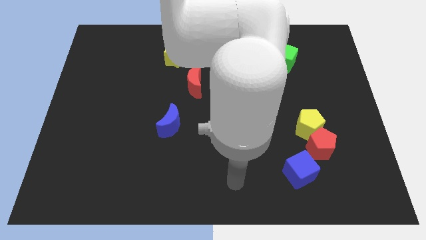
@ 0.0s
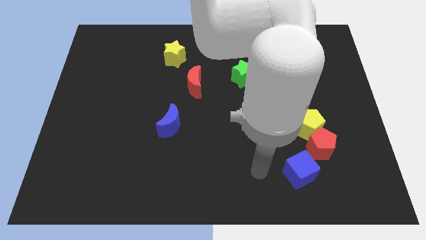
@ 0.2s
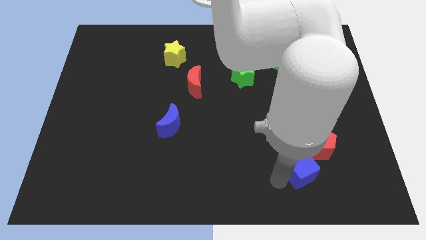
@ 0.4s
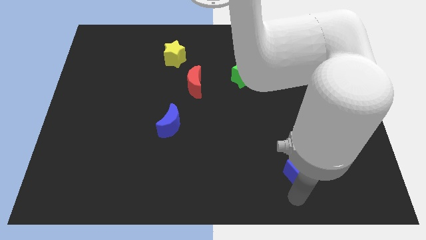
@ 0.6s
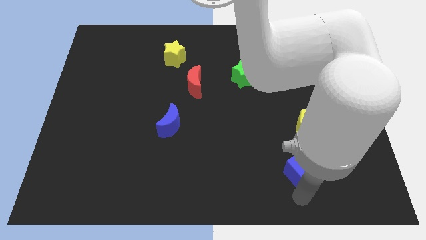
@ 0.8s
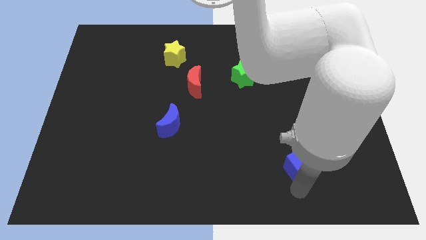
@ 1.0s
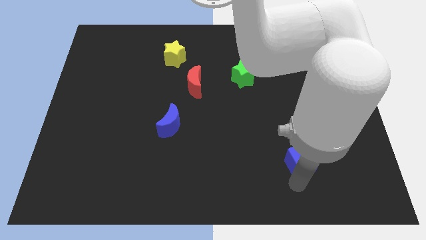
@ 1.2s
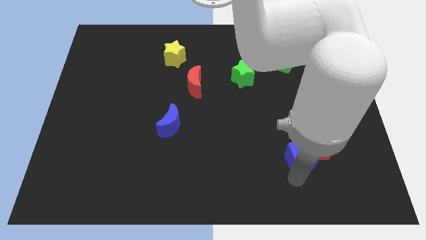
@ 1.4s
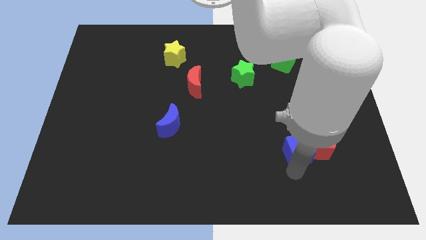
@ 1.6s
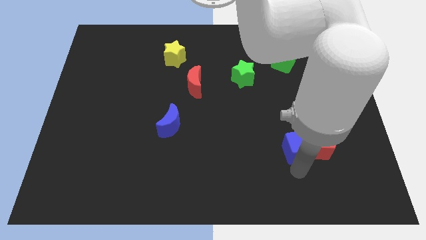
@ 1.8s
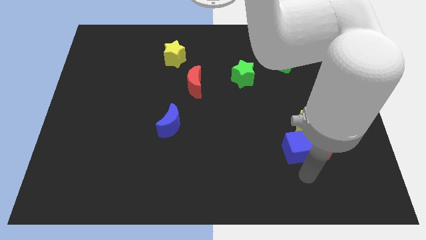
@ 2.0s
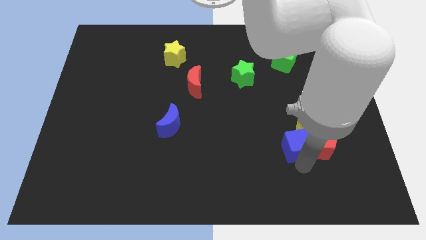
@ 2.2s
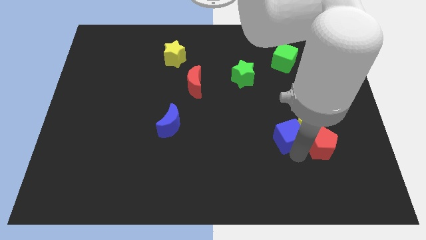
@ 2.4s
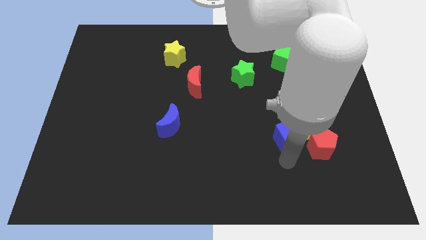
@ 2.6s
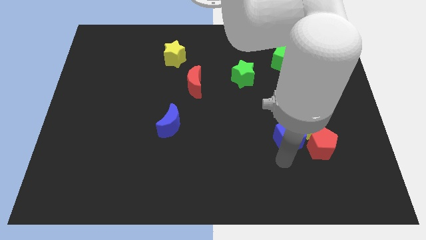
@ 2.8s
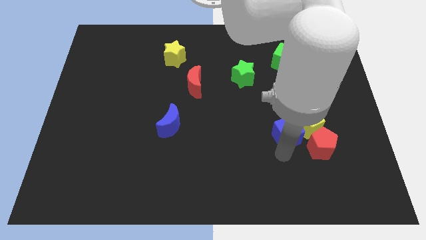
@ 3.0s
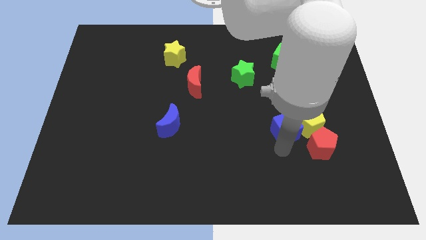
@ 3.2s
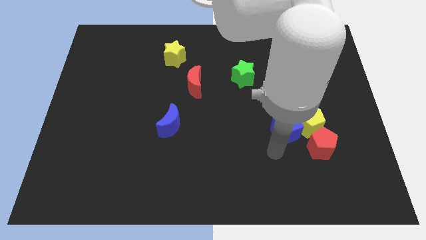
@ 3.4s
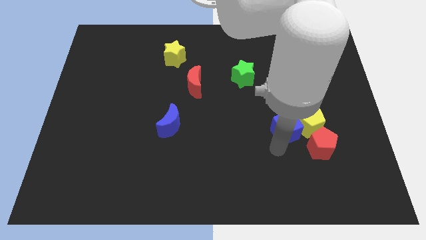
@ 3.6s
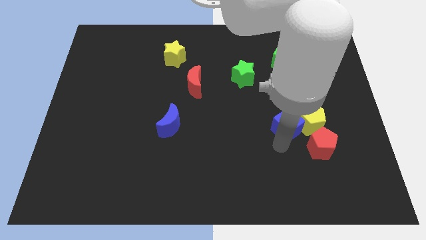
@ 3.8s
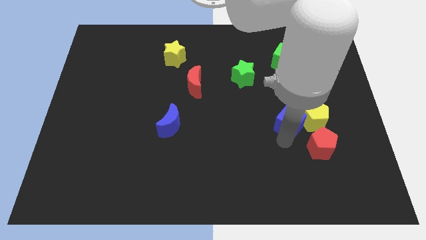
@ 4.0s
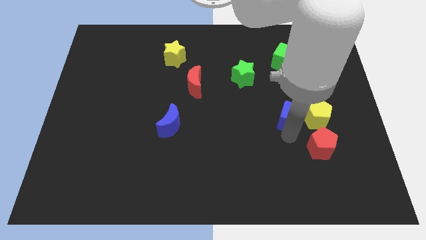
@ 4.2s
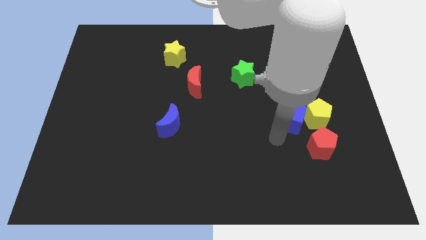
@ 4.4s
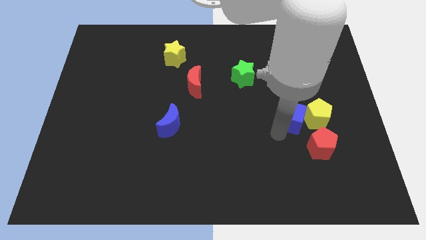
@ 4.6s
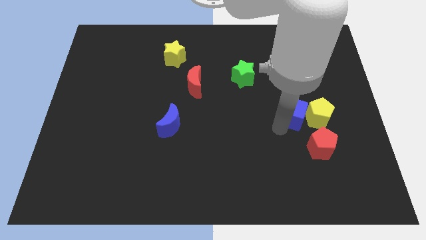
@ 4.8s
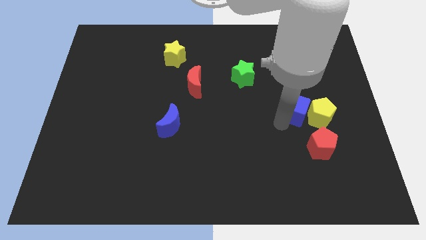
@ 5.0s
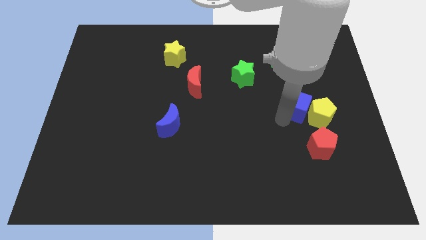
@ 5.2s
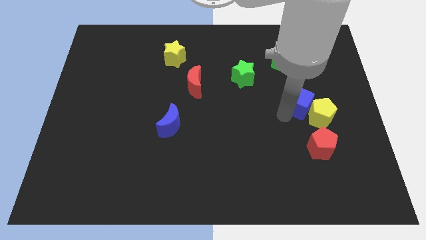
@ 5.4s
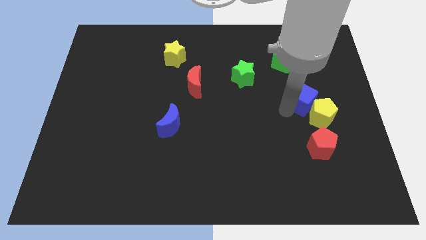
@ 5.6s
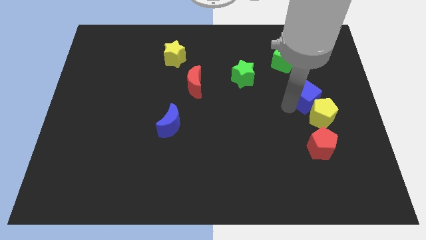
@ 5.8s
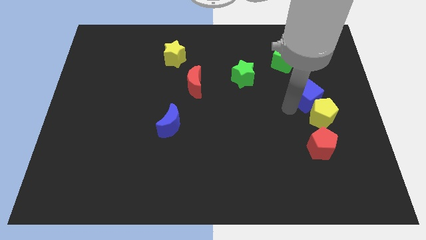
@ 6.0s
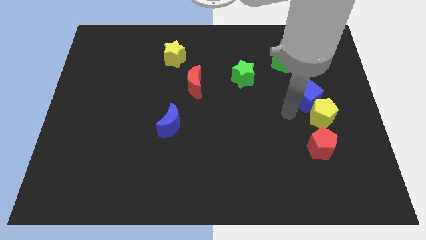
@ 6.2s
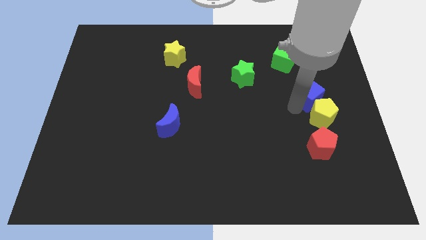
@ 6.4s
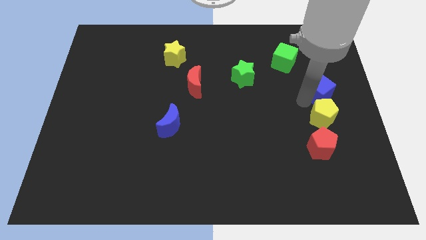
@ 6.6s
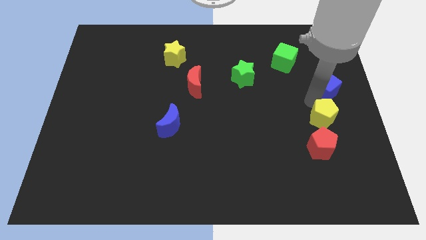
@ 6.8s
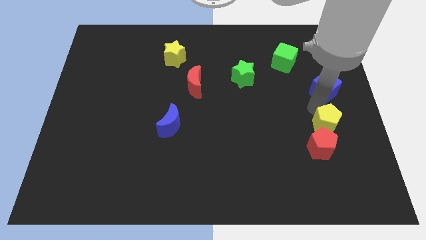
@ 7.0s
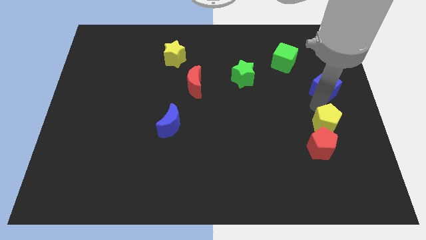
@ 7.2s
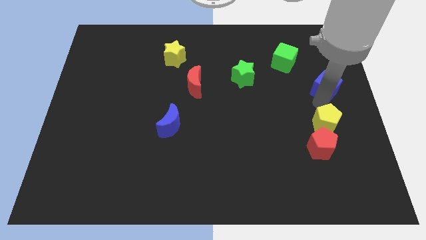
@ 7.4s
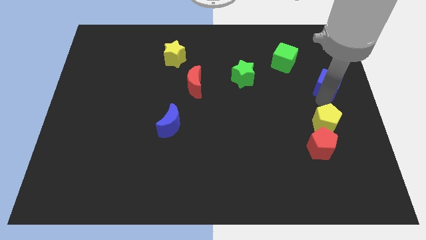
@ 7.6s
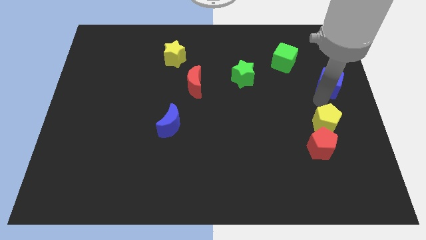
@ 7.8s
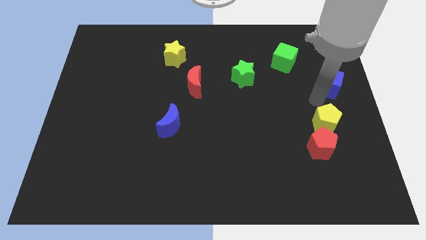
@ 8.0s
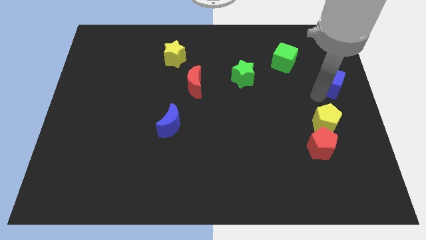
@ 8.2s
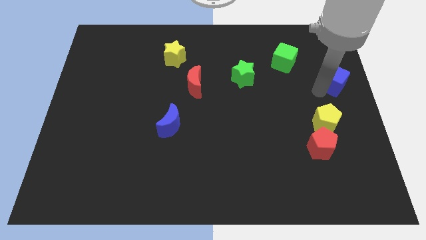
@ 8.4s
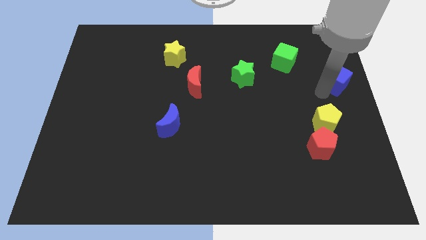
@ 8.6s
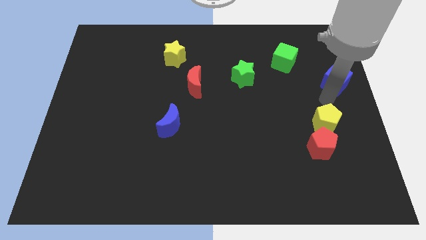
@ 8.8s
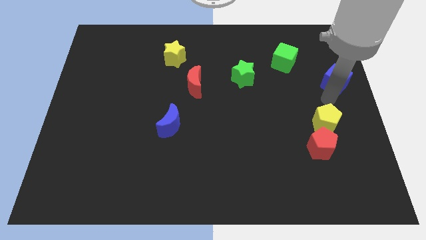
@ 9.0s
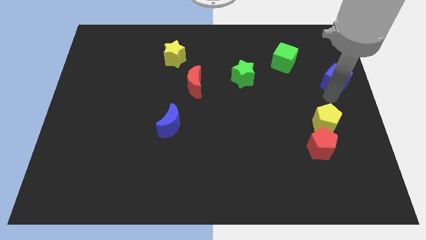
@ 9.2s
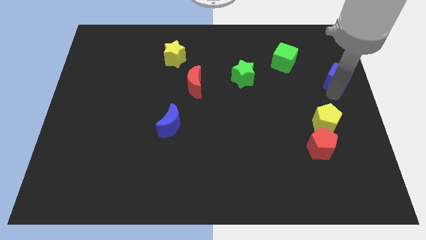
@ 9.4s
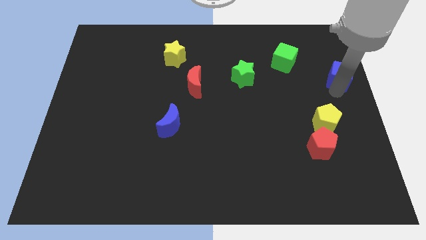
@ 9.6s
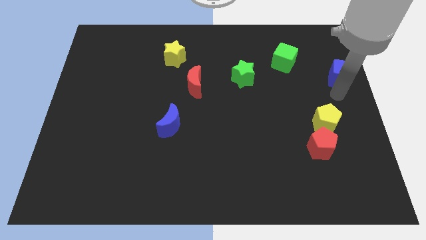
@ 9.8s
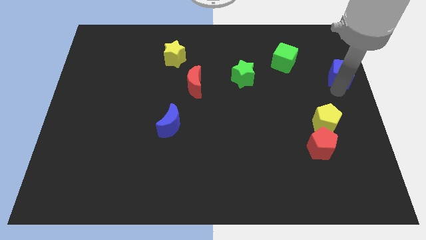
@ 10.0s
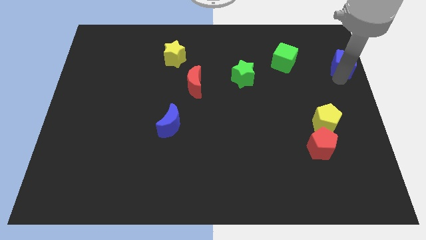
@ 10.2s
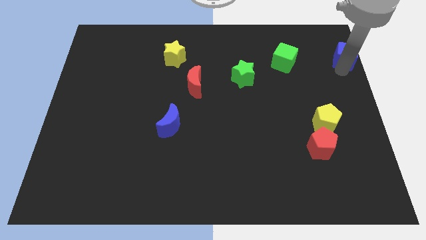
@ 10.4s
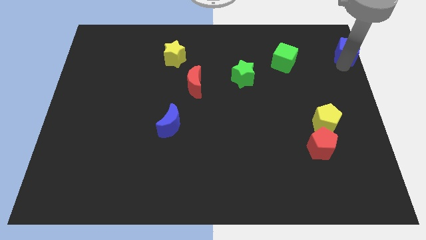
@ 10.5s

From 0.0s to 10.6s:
put the blue cube to the upper right corner
